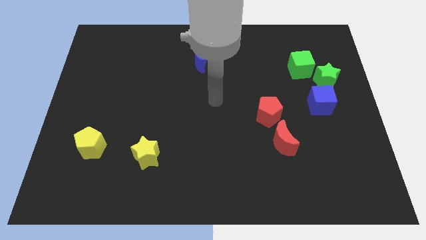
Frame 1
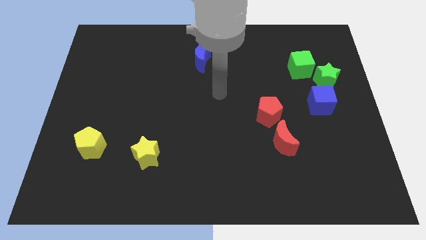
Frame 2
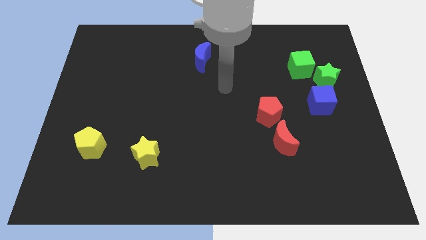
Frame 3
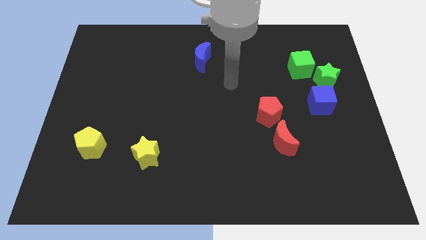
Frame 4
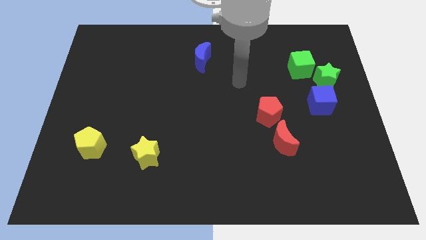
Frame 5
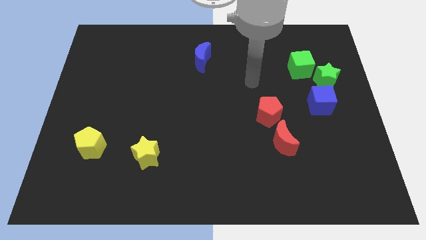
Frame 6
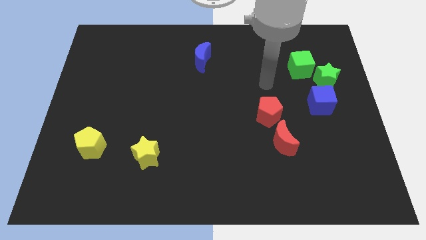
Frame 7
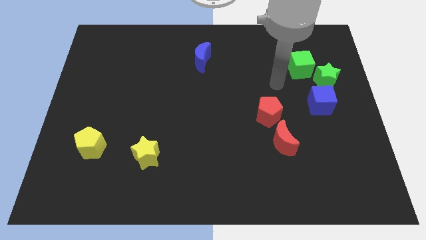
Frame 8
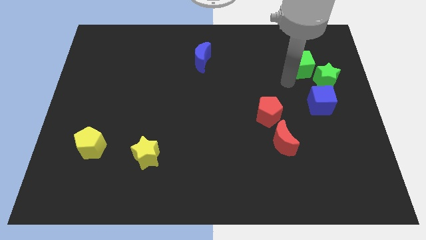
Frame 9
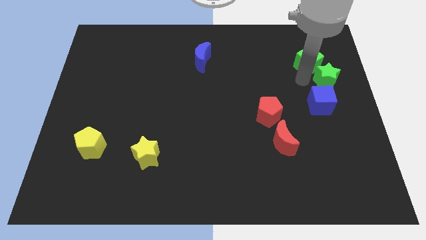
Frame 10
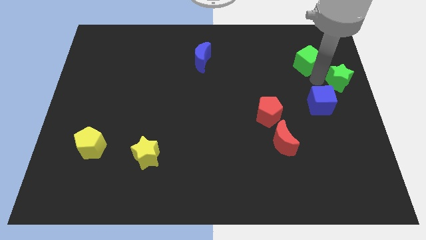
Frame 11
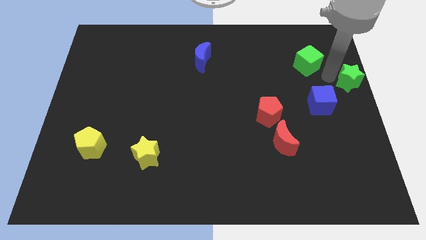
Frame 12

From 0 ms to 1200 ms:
pull the green cube apart from the green star

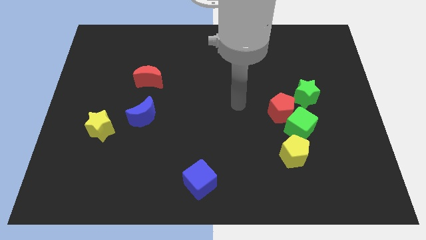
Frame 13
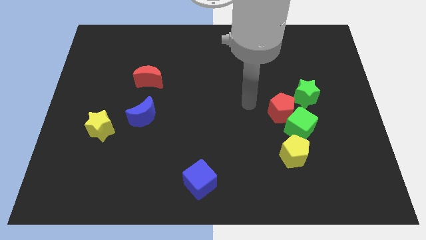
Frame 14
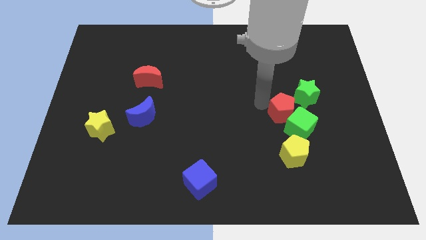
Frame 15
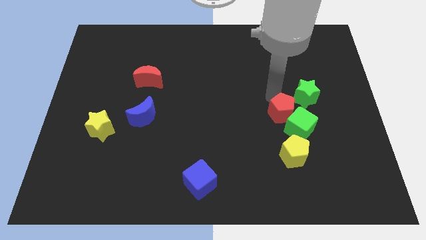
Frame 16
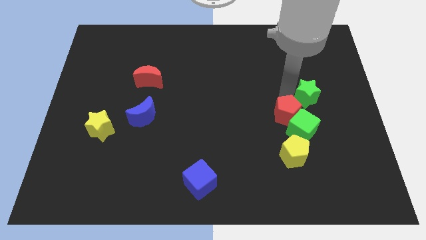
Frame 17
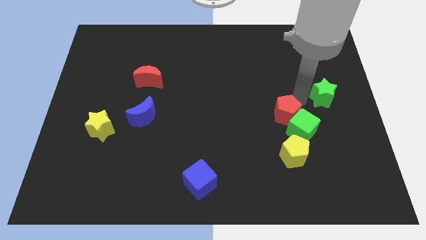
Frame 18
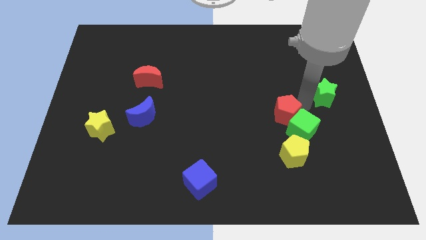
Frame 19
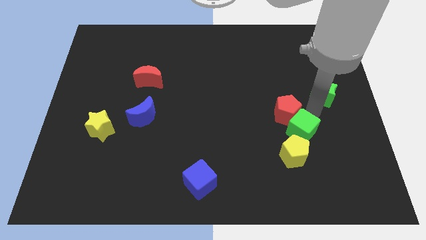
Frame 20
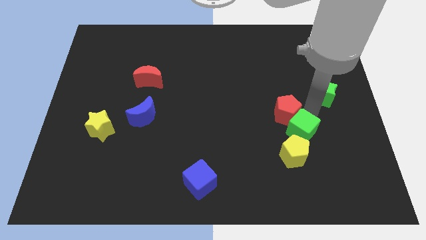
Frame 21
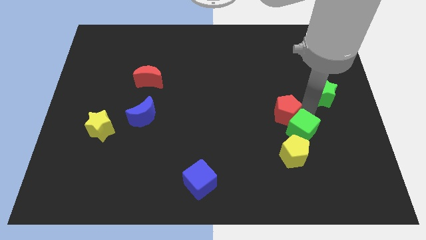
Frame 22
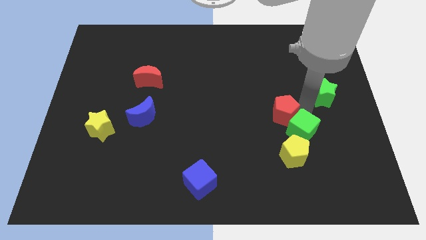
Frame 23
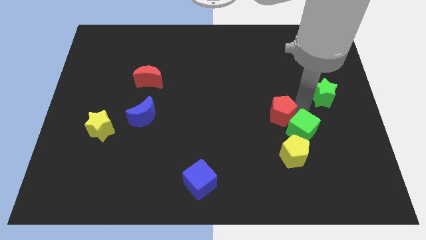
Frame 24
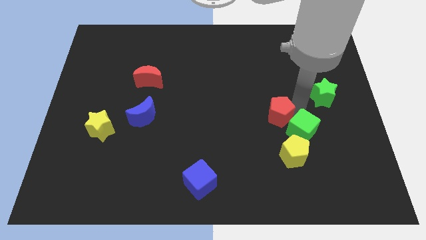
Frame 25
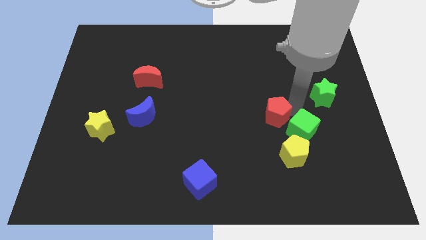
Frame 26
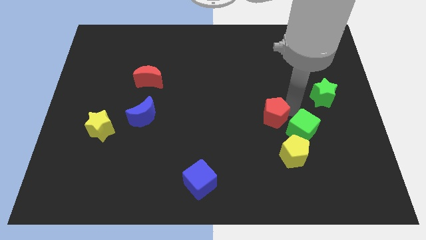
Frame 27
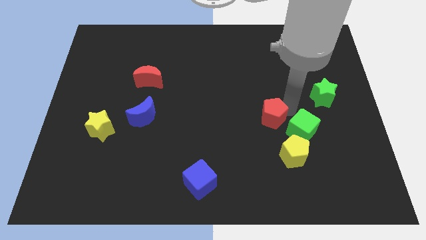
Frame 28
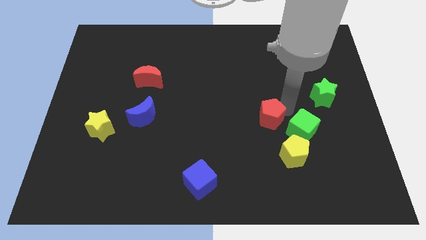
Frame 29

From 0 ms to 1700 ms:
move the red pentagon away from the green cube and green star

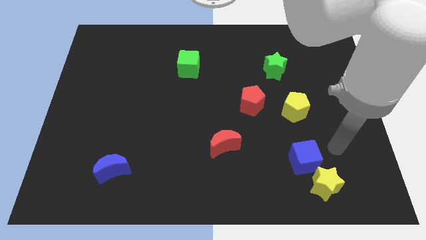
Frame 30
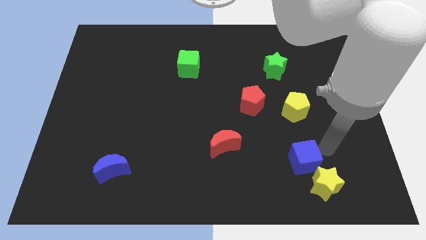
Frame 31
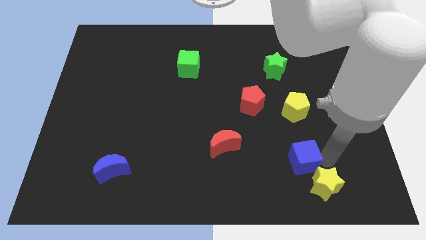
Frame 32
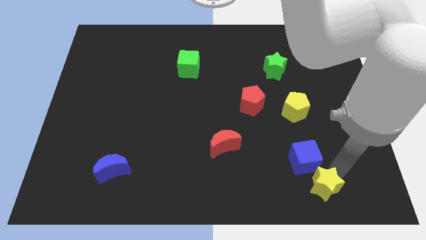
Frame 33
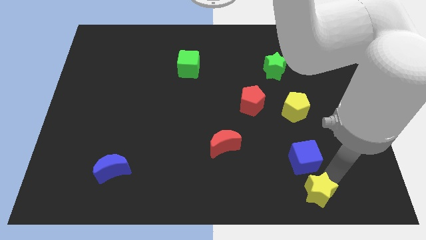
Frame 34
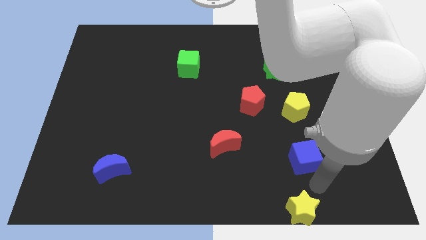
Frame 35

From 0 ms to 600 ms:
separate the blue cube from the yellow star

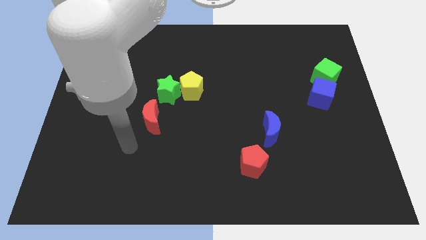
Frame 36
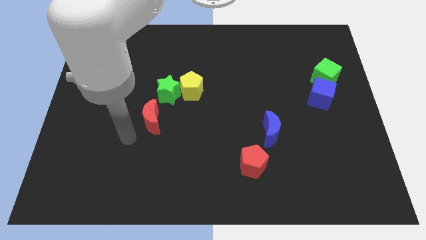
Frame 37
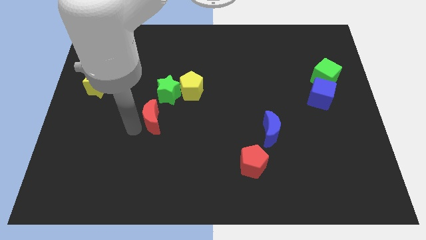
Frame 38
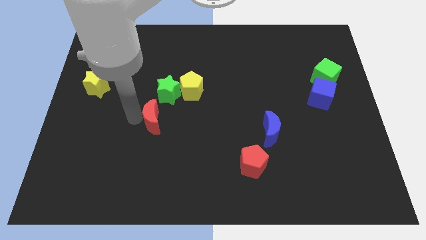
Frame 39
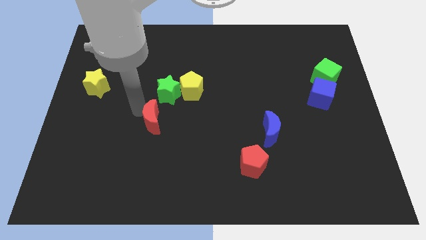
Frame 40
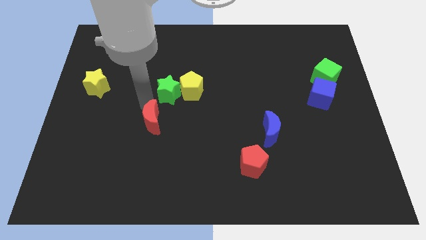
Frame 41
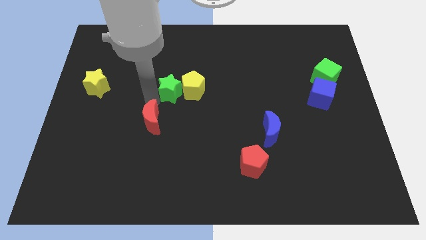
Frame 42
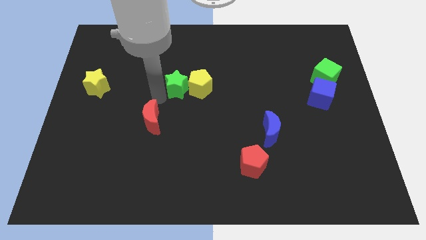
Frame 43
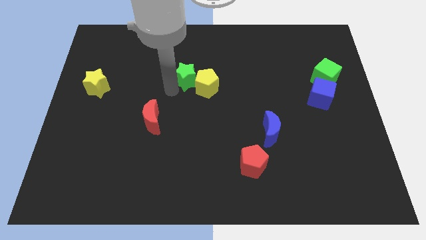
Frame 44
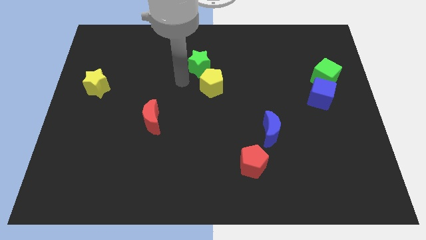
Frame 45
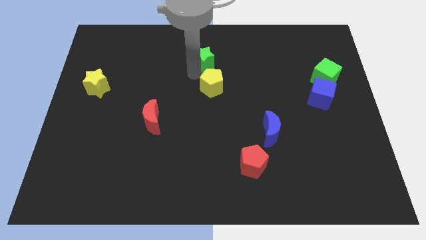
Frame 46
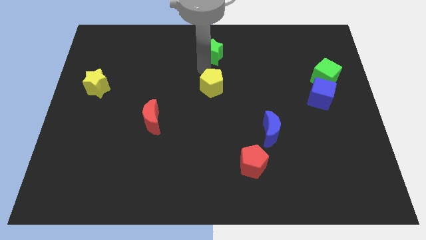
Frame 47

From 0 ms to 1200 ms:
separate the yellow pentagon from the green star

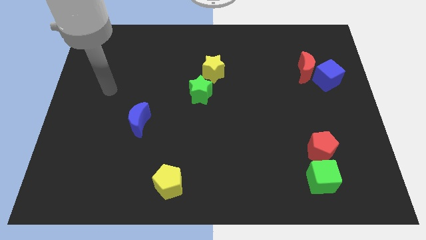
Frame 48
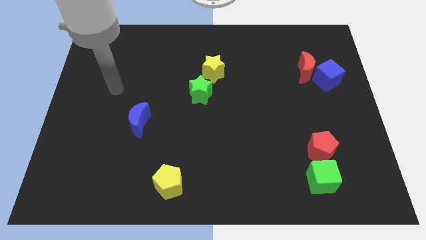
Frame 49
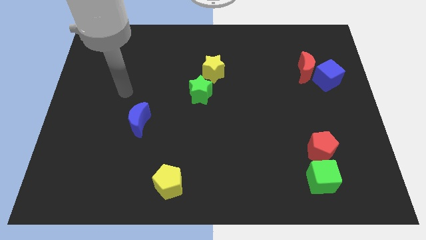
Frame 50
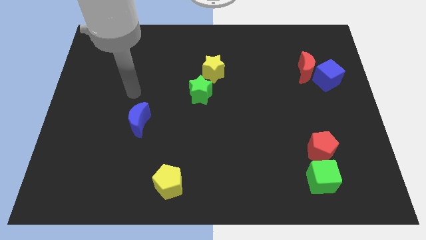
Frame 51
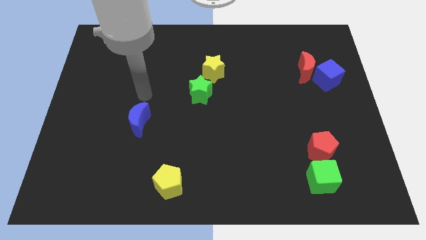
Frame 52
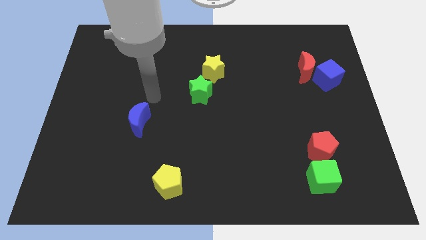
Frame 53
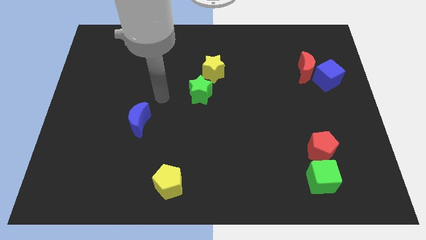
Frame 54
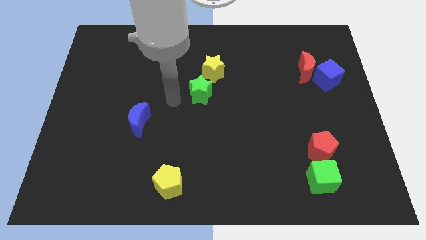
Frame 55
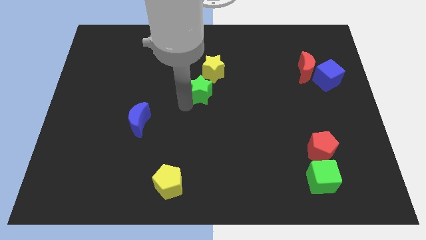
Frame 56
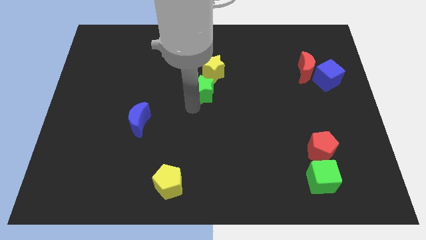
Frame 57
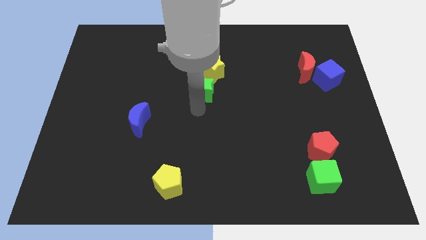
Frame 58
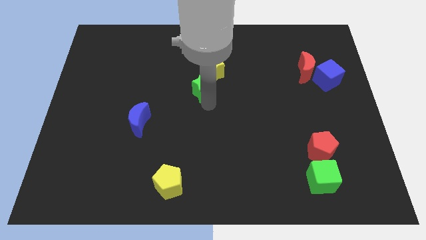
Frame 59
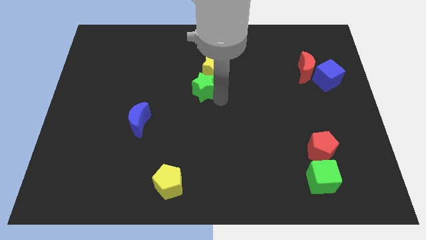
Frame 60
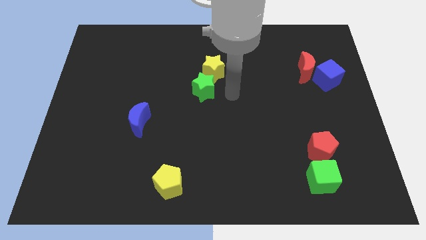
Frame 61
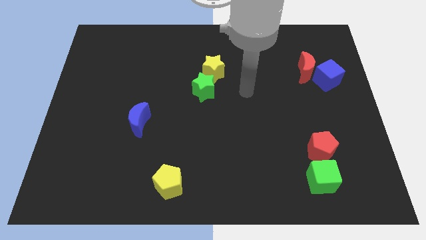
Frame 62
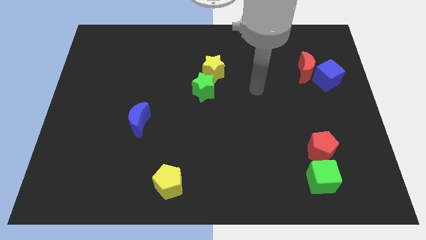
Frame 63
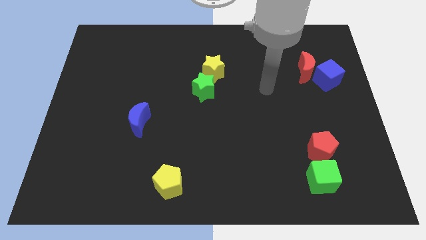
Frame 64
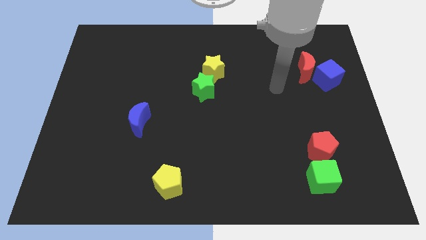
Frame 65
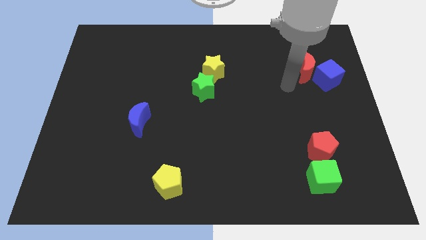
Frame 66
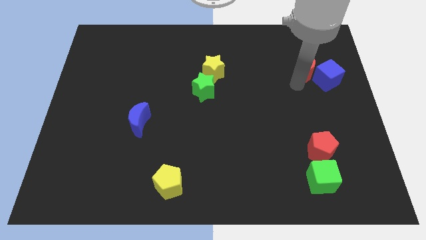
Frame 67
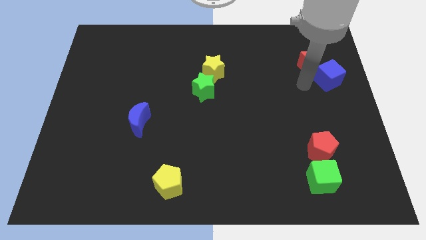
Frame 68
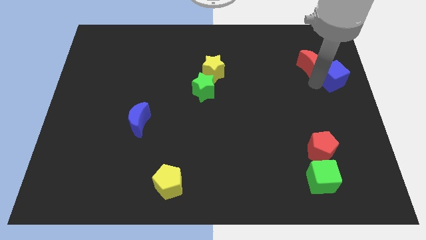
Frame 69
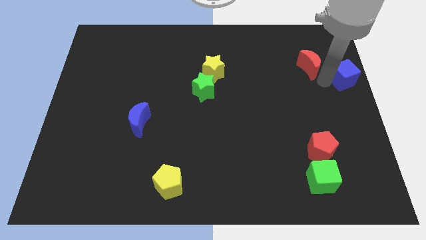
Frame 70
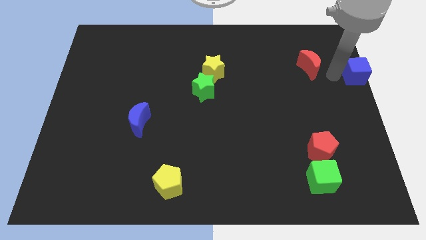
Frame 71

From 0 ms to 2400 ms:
move the red moon away from the blue cube

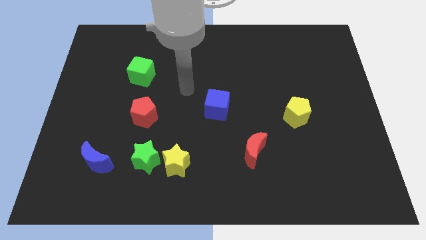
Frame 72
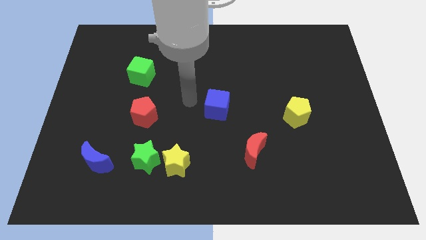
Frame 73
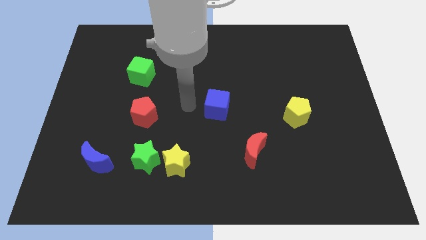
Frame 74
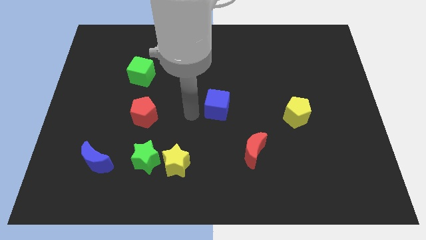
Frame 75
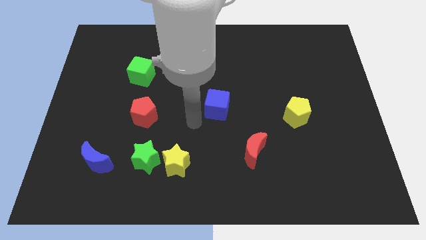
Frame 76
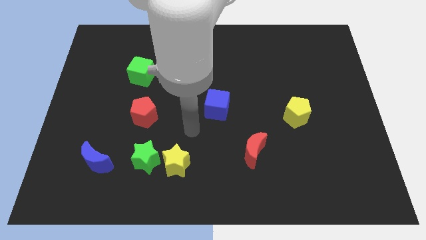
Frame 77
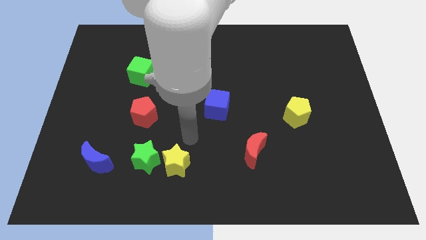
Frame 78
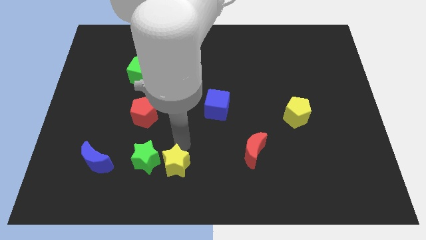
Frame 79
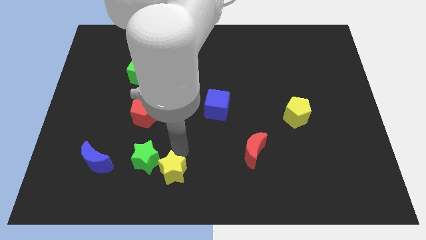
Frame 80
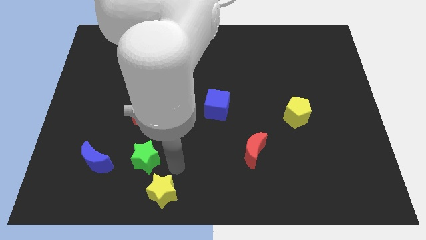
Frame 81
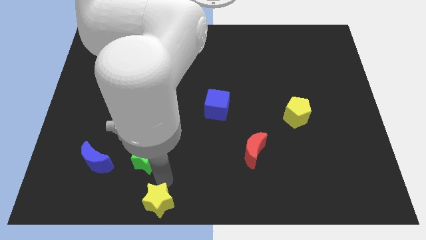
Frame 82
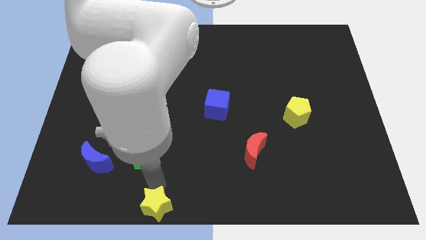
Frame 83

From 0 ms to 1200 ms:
move the green star away from the yellow star

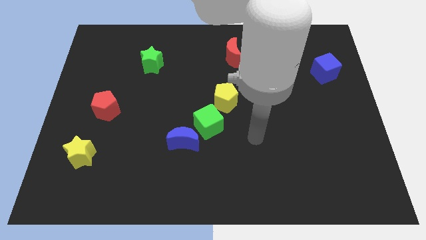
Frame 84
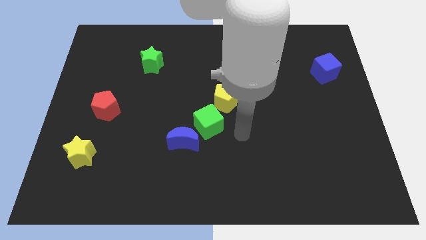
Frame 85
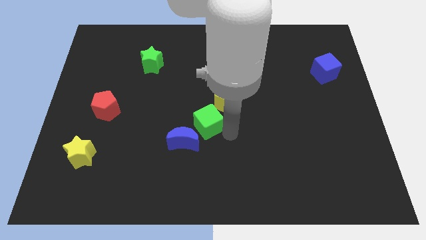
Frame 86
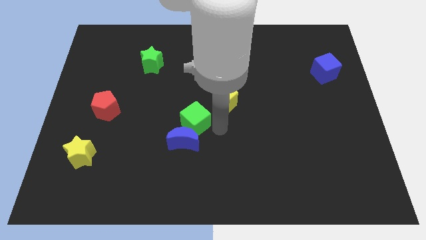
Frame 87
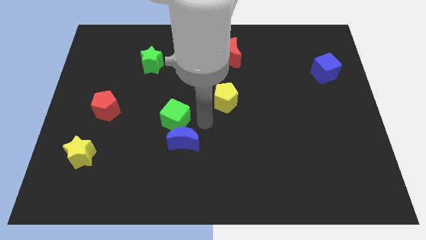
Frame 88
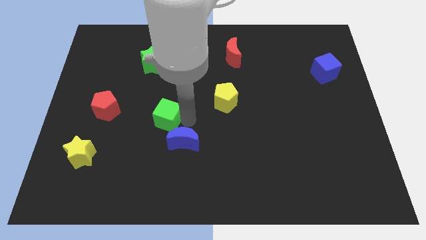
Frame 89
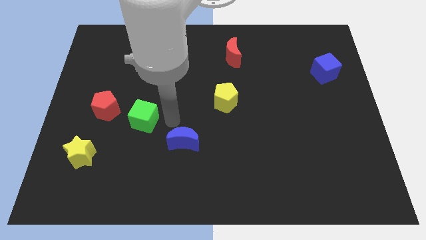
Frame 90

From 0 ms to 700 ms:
separate the blue moon from the green cube
